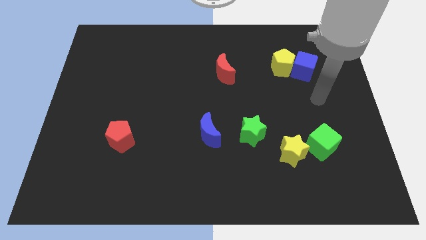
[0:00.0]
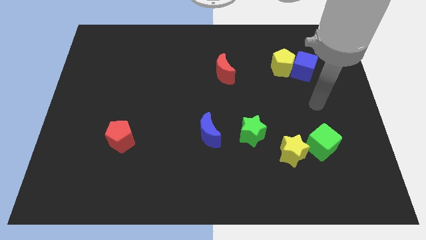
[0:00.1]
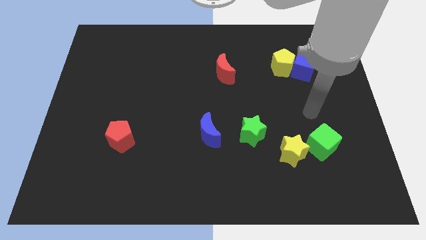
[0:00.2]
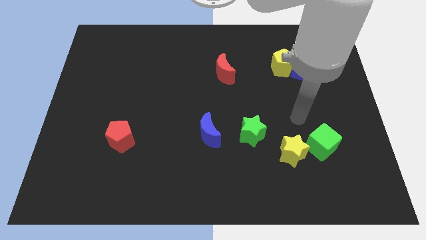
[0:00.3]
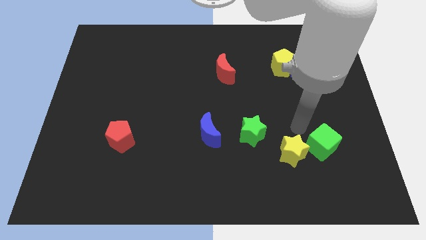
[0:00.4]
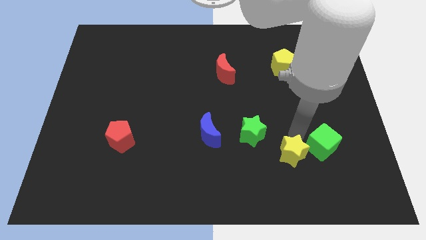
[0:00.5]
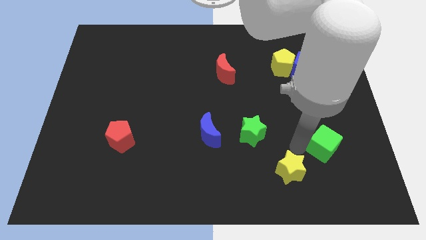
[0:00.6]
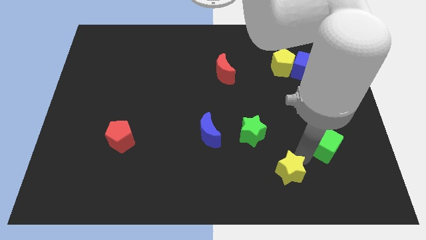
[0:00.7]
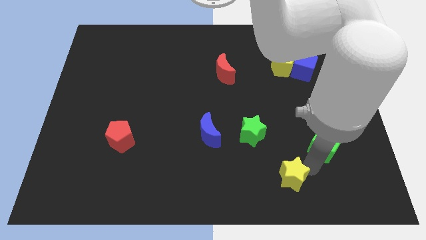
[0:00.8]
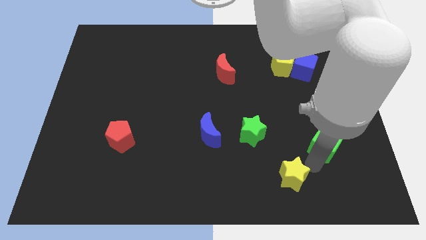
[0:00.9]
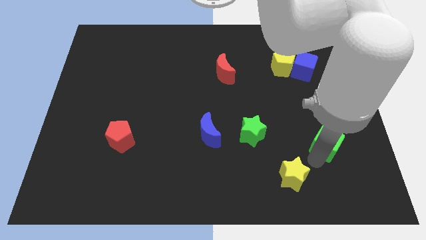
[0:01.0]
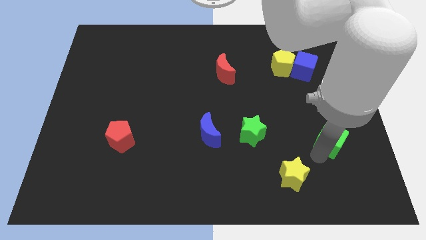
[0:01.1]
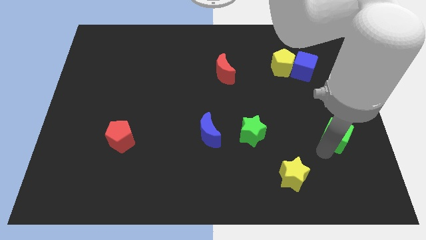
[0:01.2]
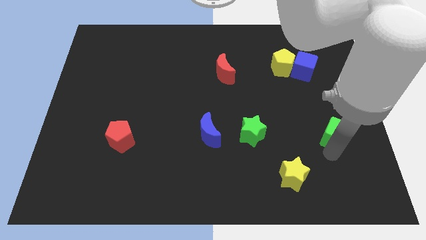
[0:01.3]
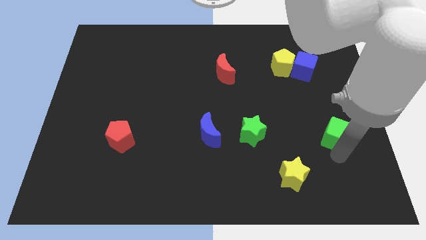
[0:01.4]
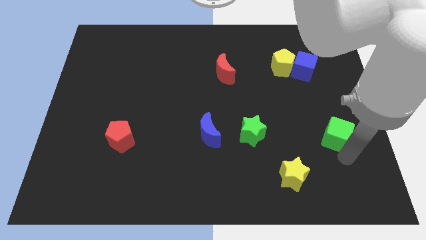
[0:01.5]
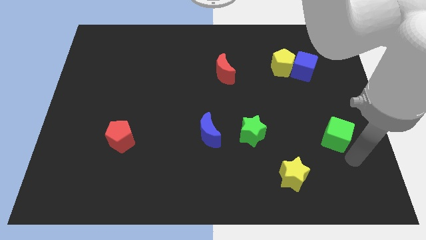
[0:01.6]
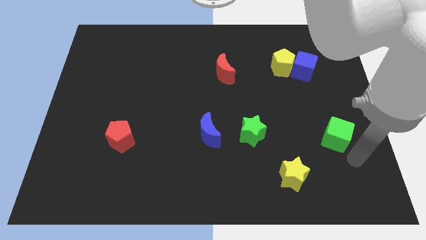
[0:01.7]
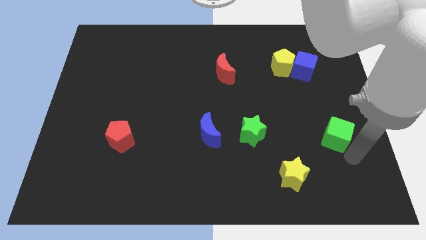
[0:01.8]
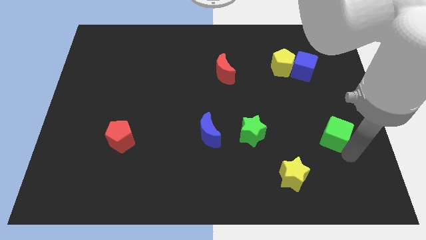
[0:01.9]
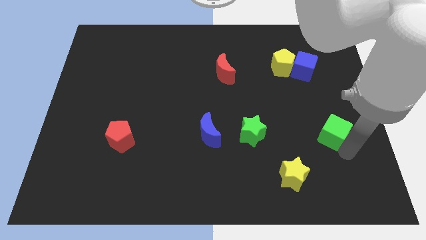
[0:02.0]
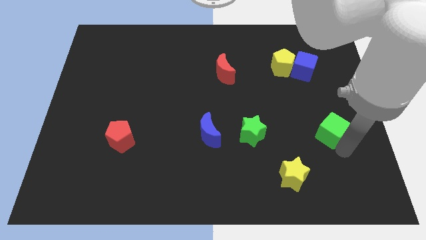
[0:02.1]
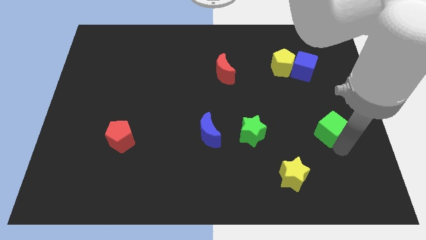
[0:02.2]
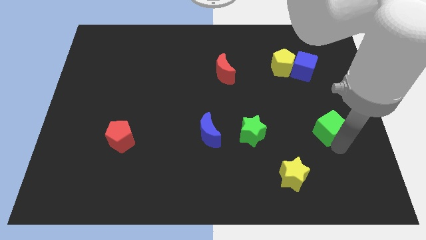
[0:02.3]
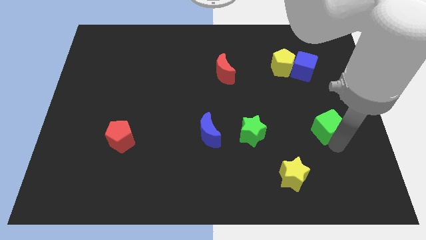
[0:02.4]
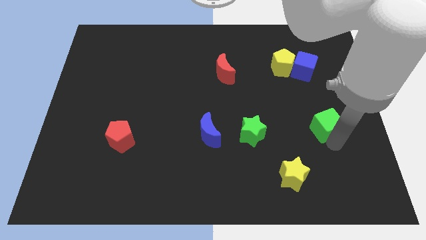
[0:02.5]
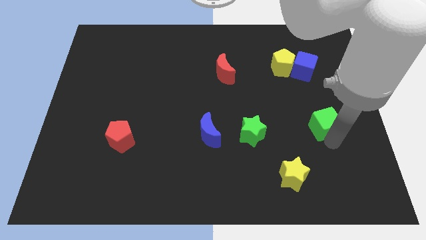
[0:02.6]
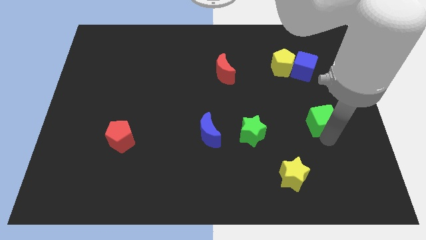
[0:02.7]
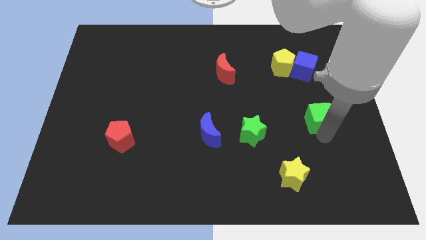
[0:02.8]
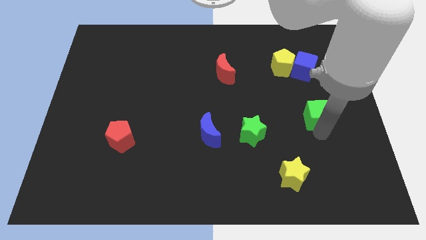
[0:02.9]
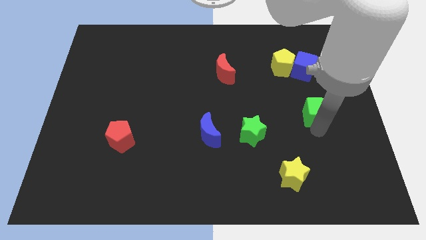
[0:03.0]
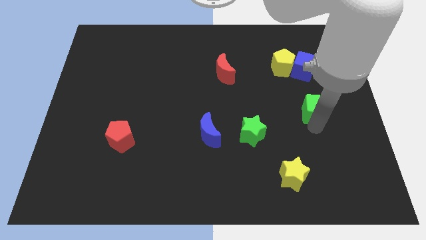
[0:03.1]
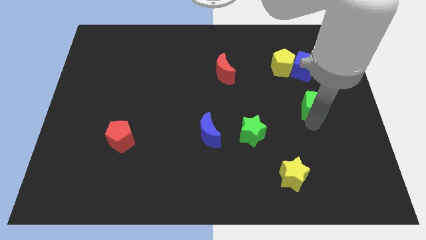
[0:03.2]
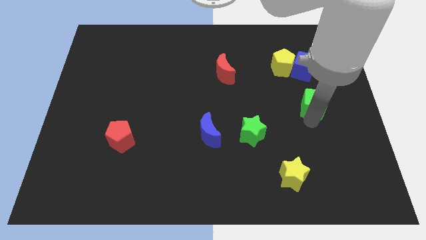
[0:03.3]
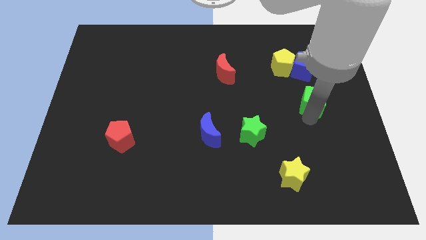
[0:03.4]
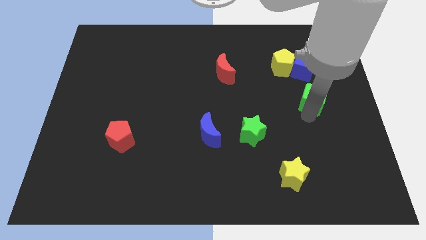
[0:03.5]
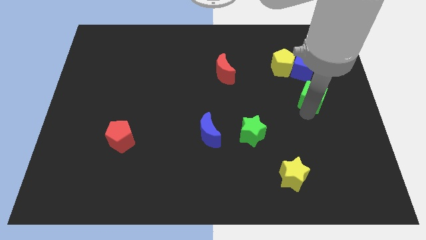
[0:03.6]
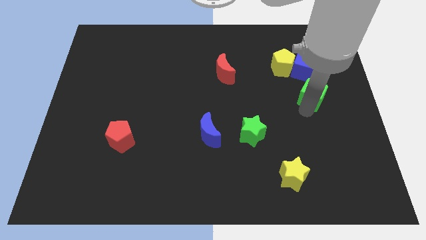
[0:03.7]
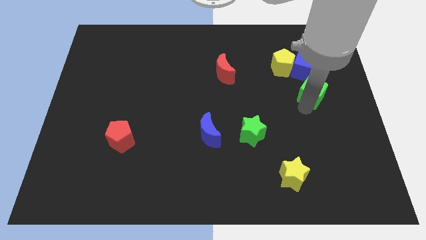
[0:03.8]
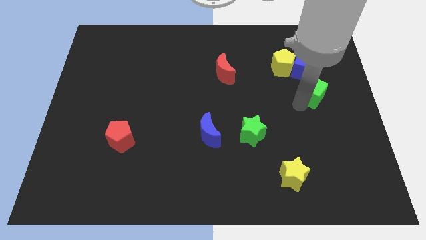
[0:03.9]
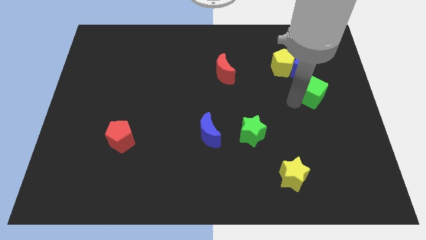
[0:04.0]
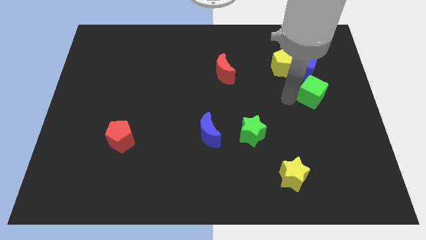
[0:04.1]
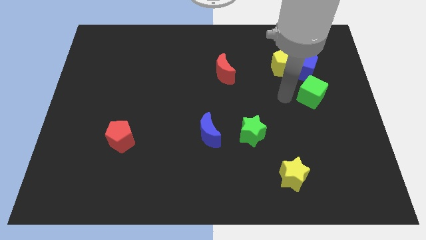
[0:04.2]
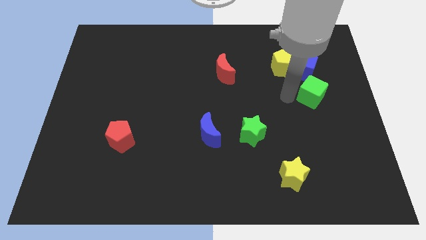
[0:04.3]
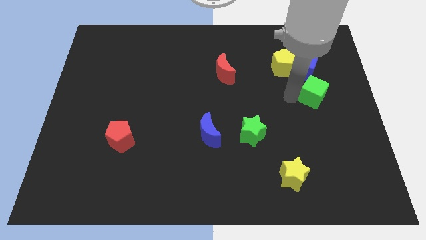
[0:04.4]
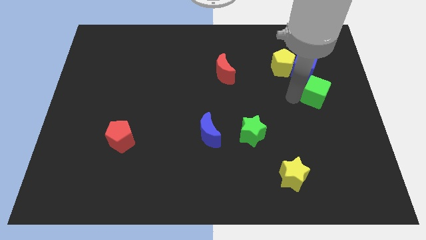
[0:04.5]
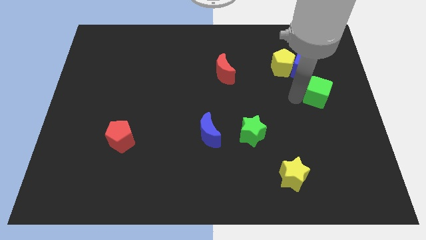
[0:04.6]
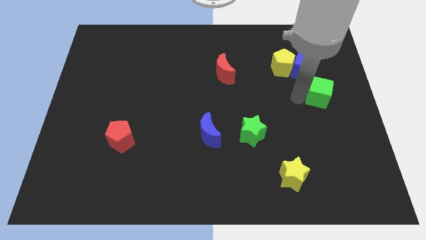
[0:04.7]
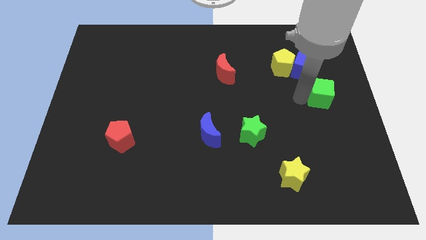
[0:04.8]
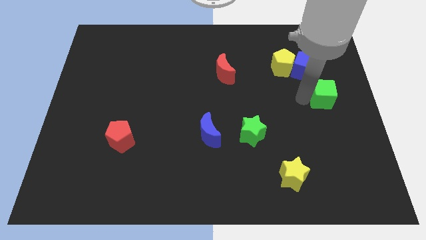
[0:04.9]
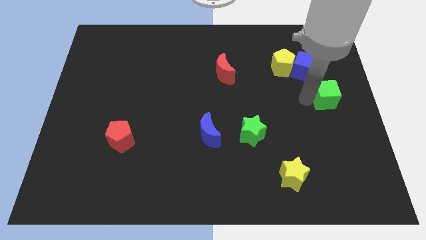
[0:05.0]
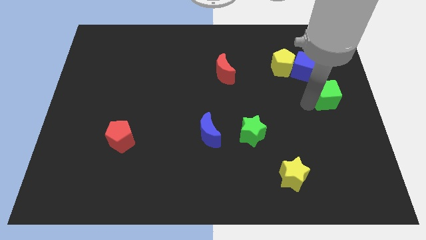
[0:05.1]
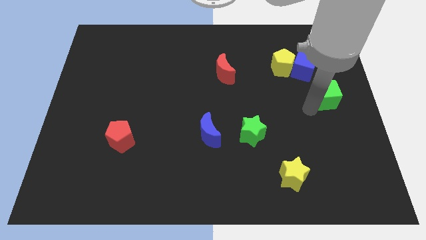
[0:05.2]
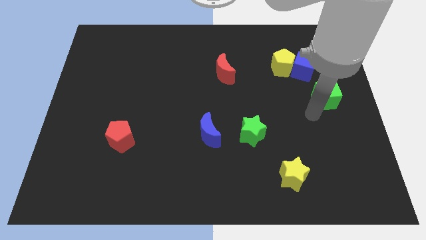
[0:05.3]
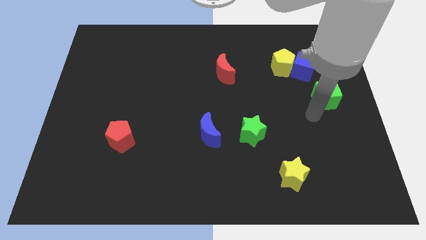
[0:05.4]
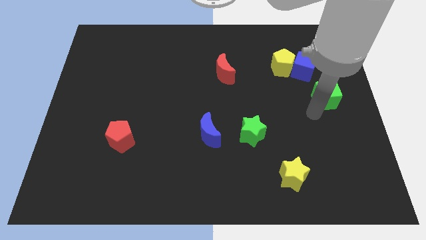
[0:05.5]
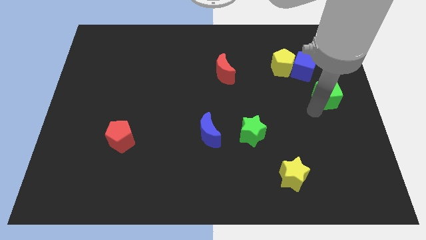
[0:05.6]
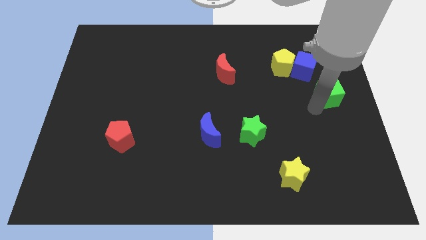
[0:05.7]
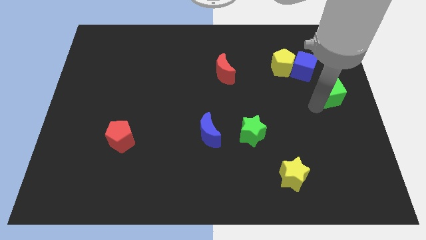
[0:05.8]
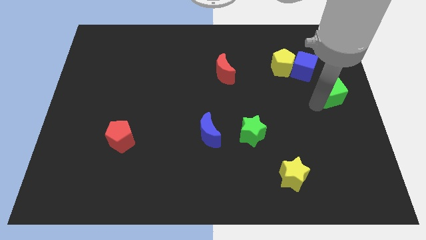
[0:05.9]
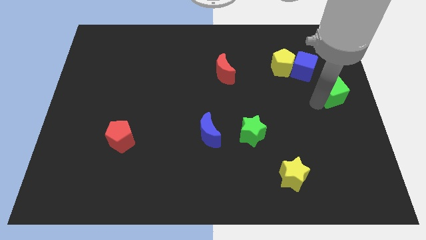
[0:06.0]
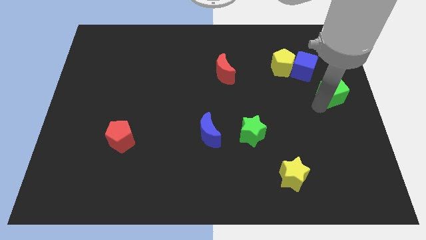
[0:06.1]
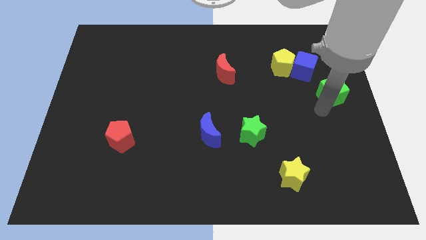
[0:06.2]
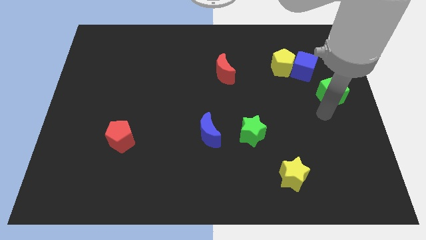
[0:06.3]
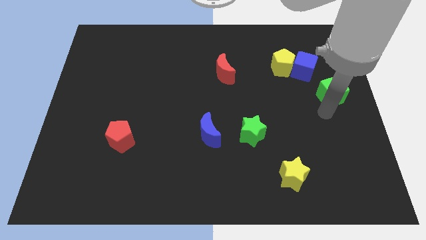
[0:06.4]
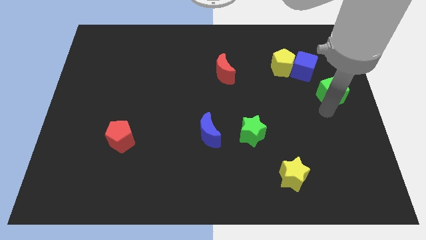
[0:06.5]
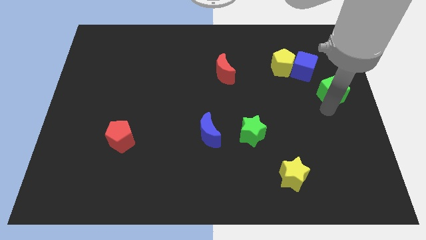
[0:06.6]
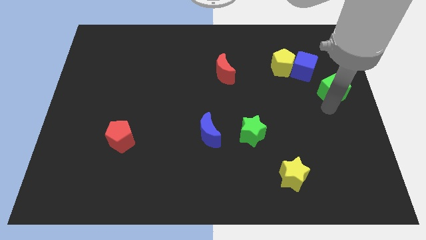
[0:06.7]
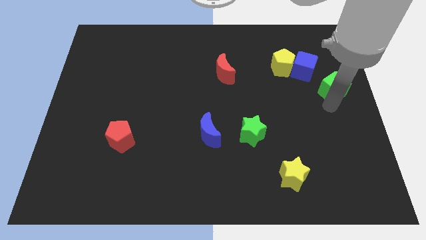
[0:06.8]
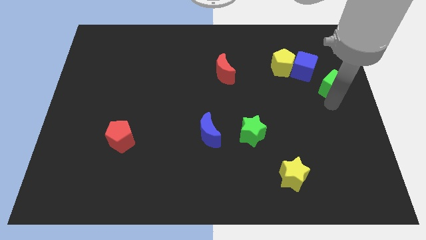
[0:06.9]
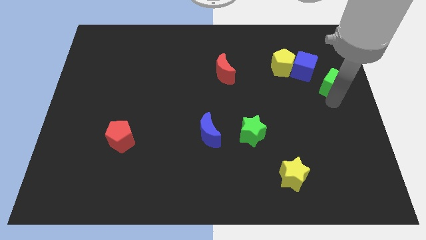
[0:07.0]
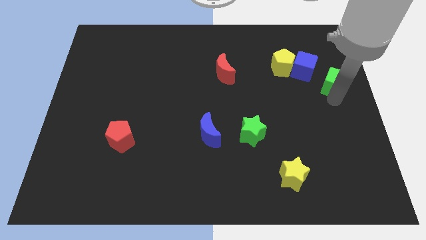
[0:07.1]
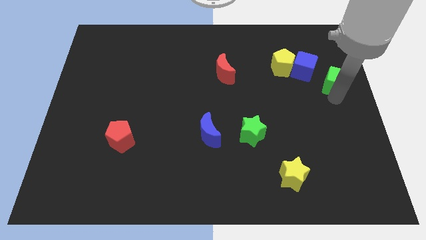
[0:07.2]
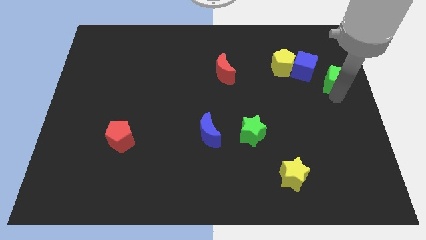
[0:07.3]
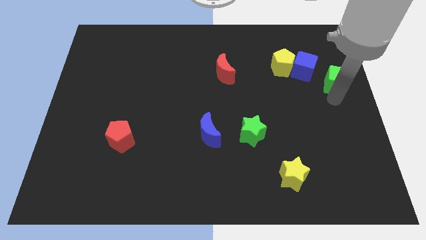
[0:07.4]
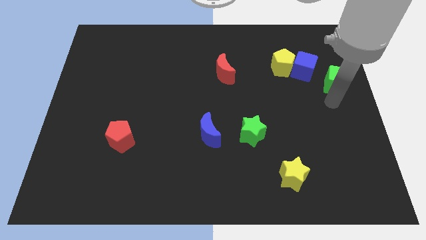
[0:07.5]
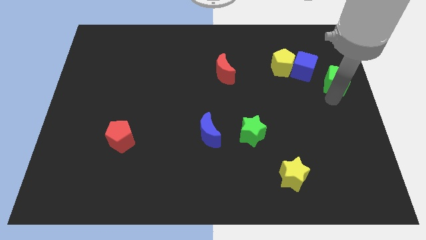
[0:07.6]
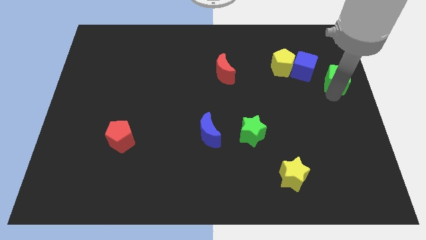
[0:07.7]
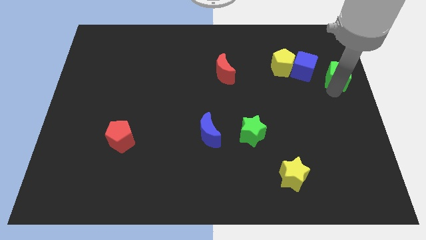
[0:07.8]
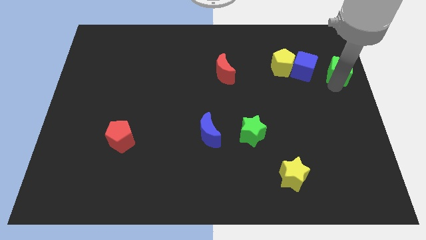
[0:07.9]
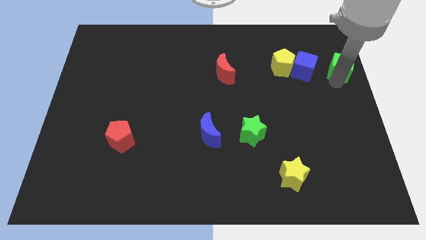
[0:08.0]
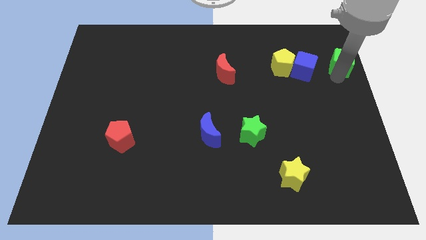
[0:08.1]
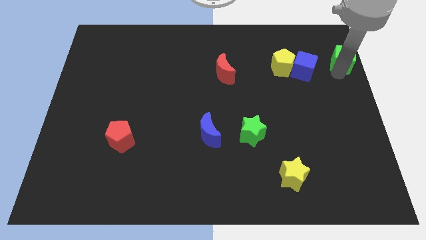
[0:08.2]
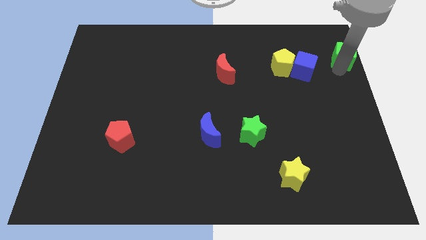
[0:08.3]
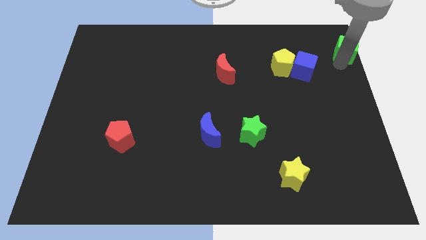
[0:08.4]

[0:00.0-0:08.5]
move the green cube to the upper right corner
